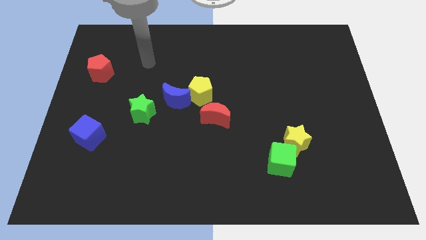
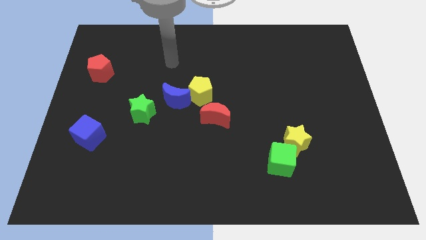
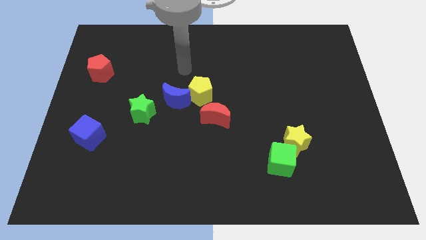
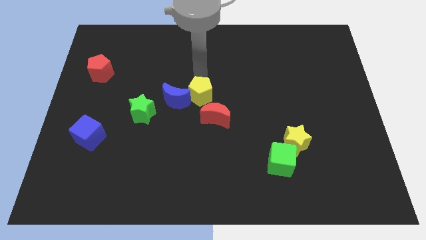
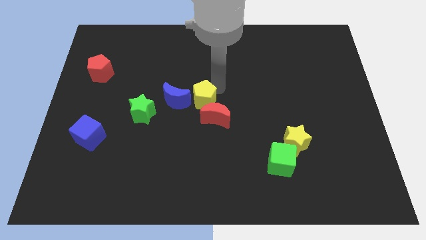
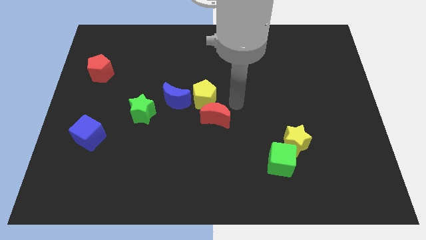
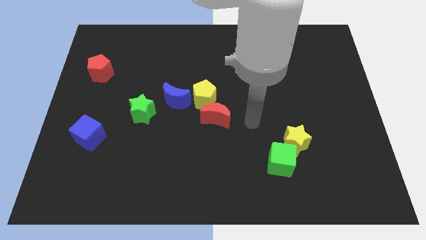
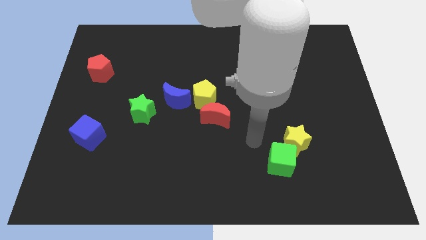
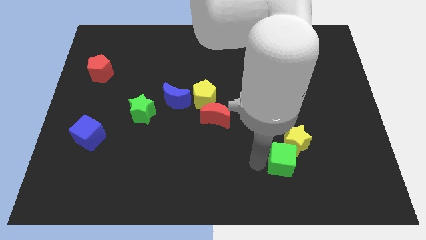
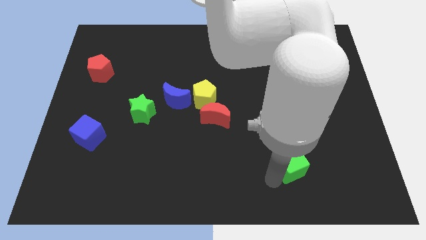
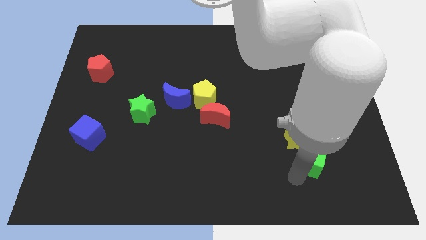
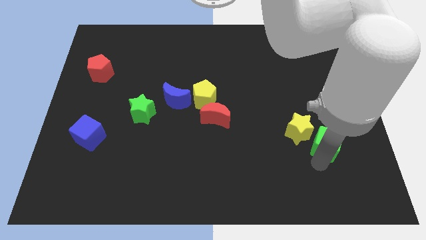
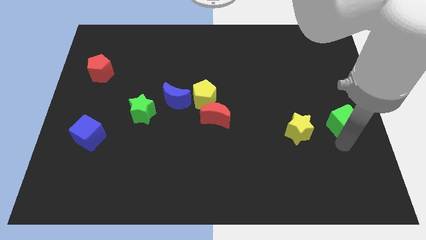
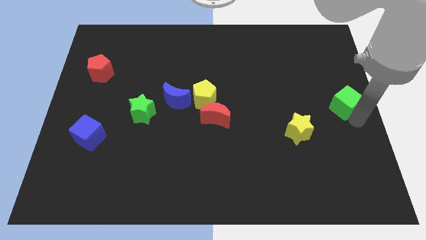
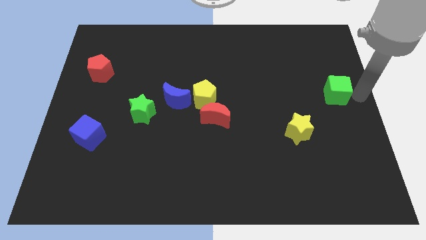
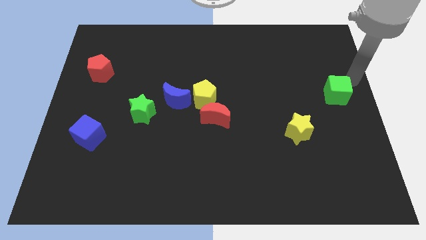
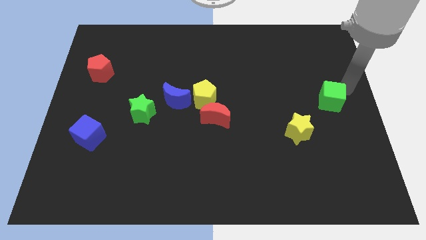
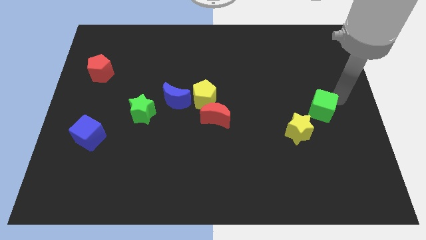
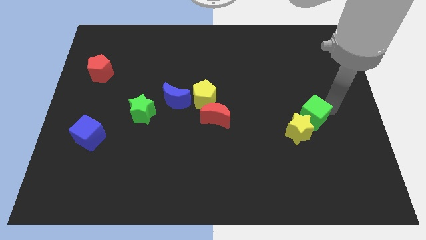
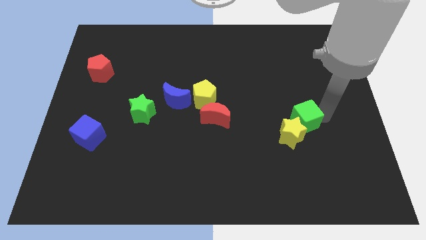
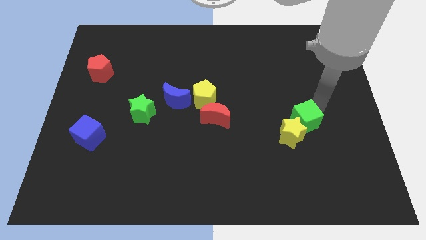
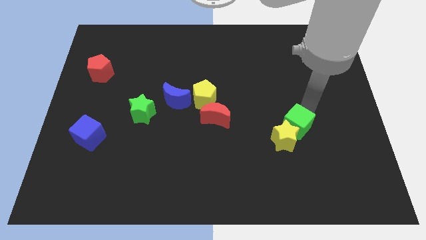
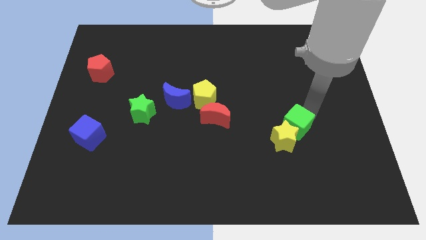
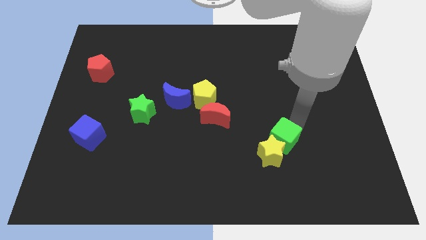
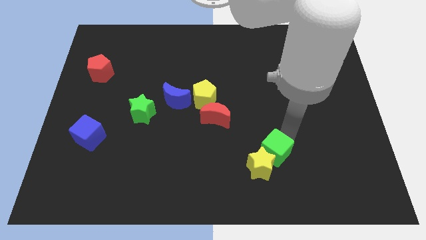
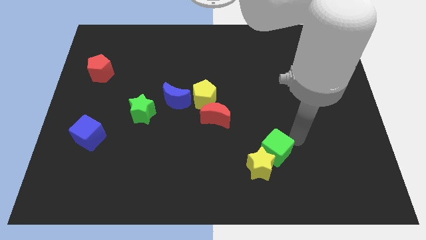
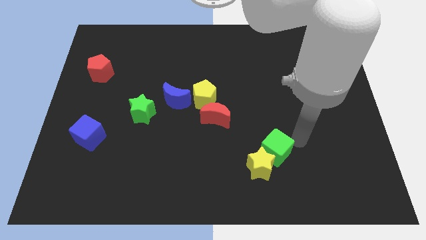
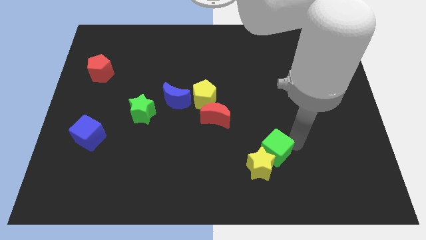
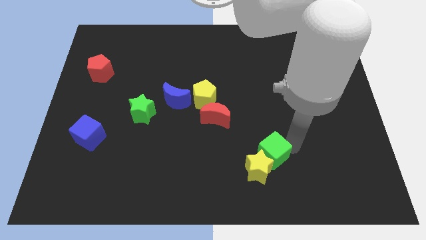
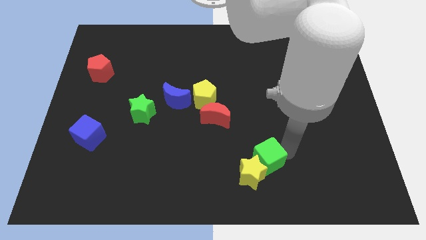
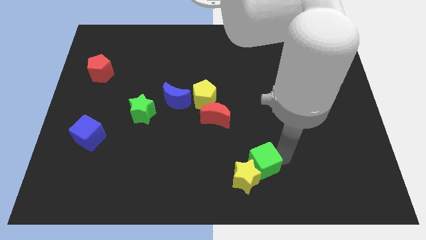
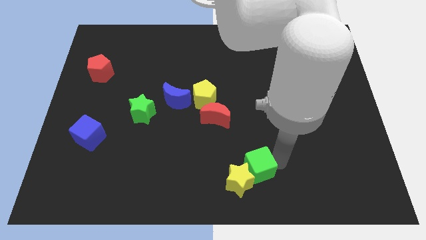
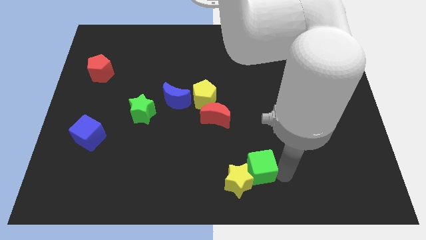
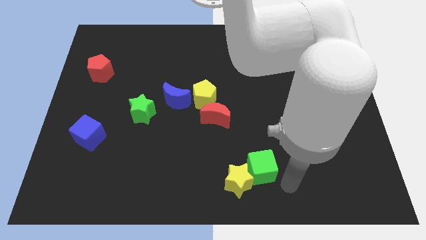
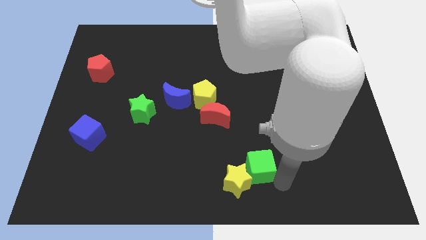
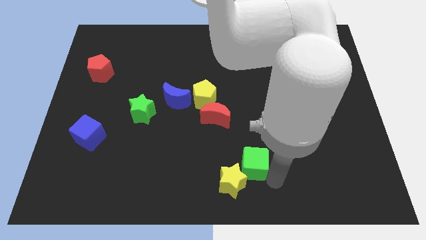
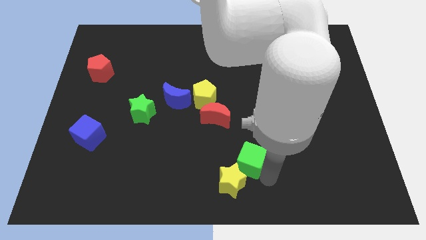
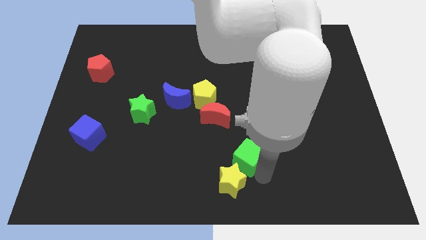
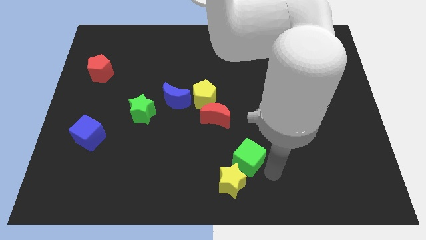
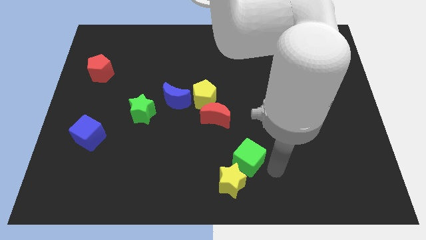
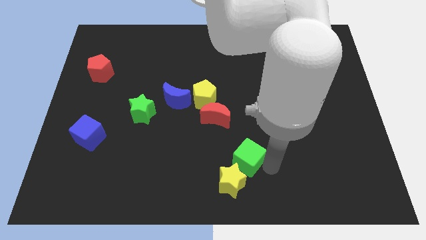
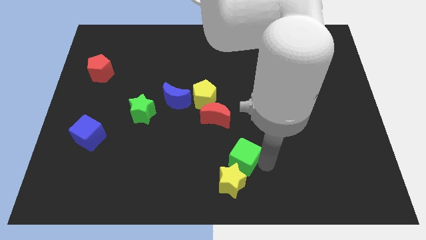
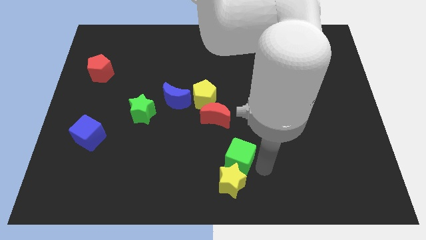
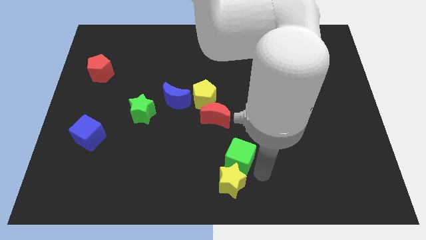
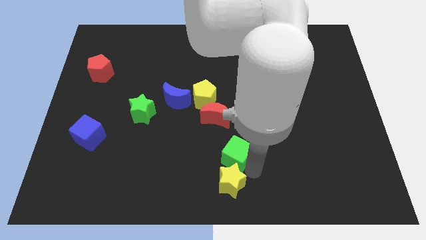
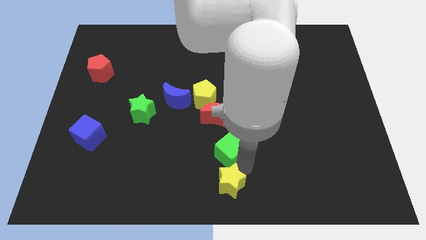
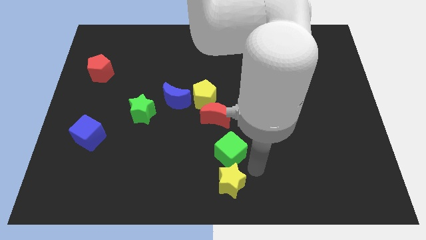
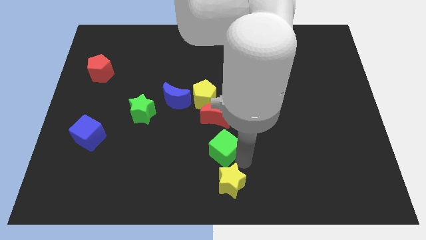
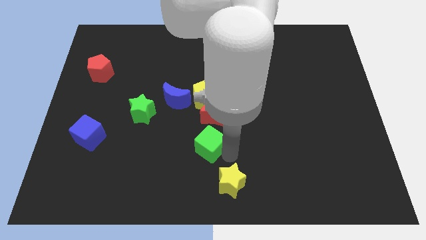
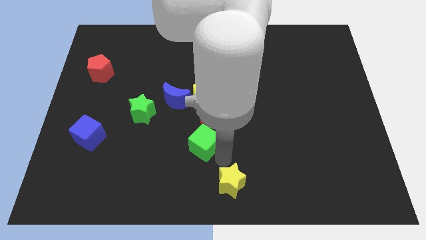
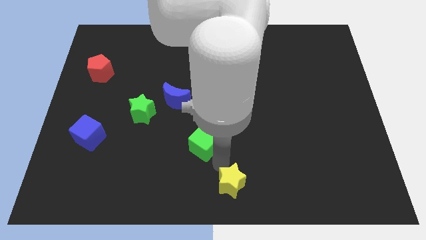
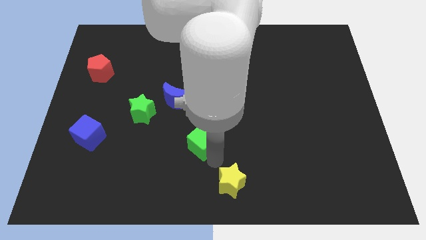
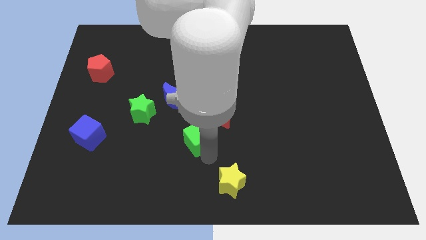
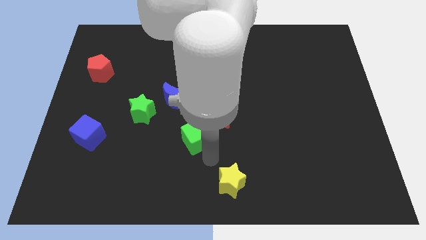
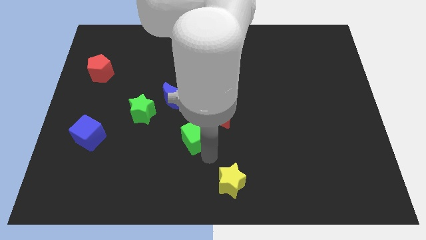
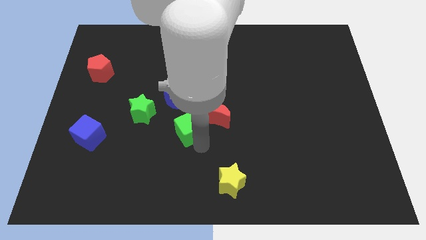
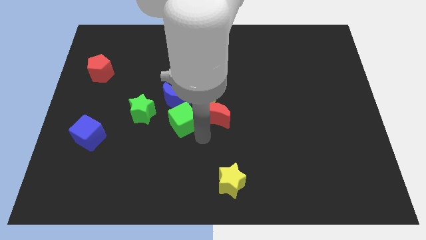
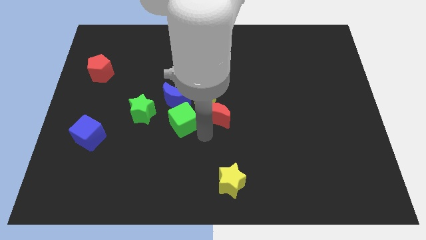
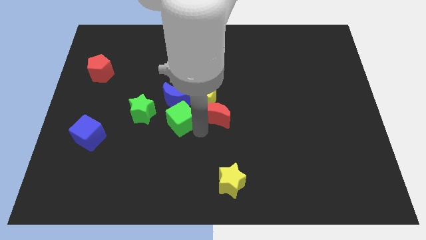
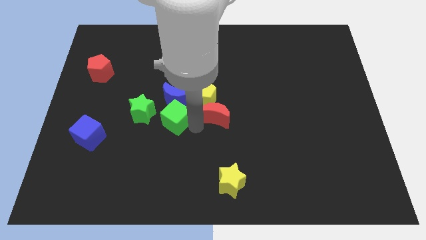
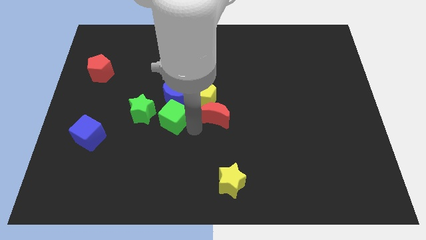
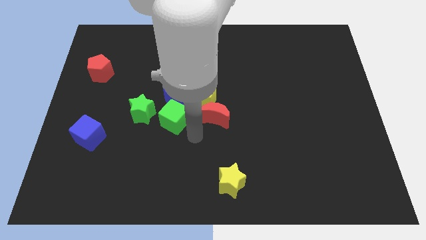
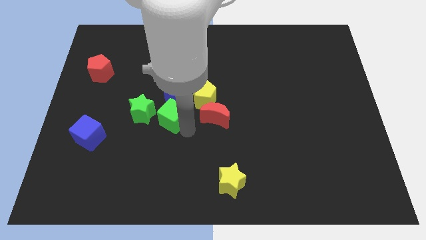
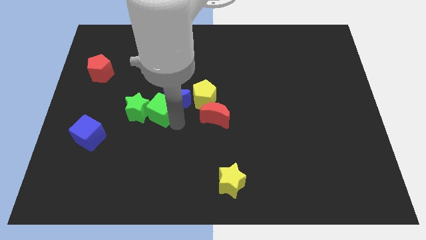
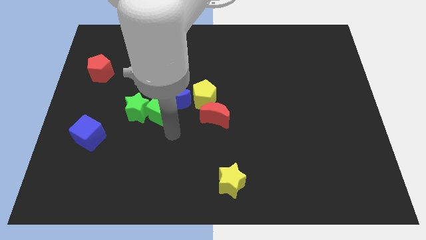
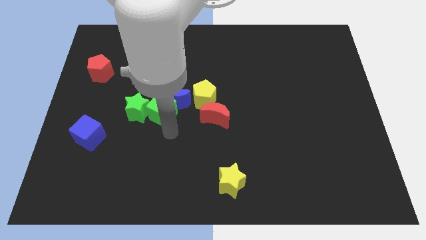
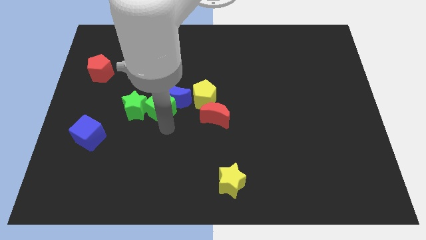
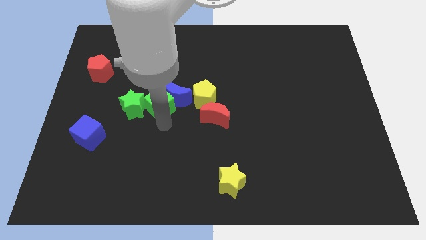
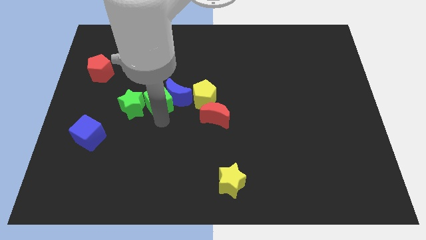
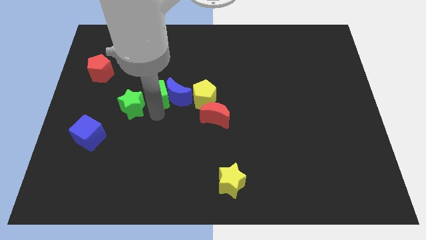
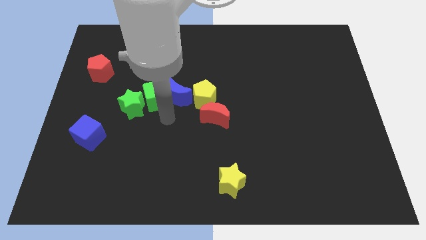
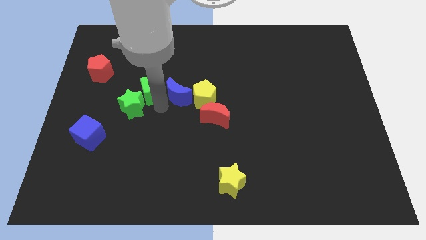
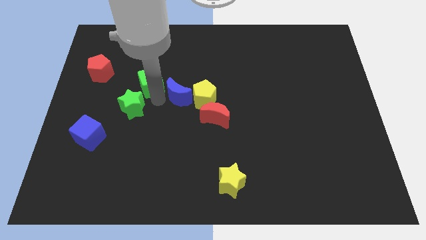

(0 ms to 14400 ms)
put the green cube to the right of the red pentagon
